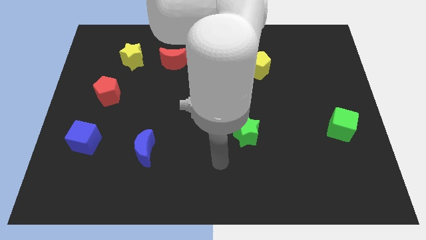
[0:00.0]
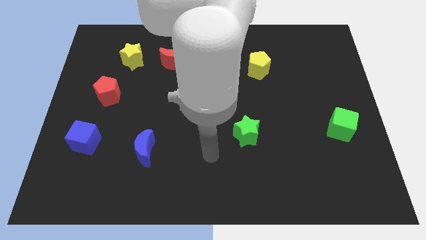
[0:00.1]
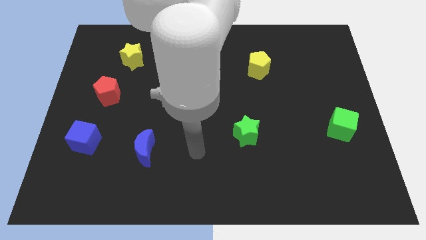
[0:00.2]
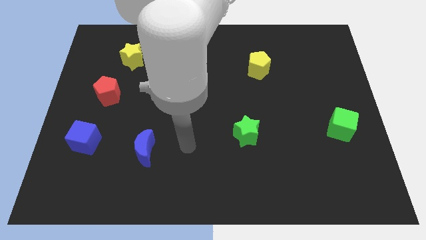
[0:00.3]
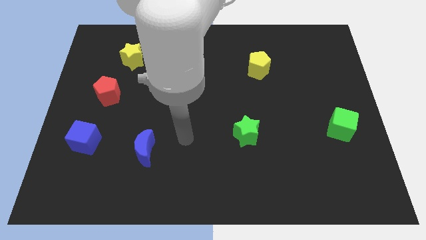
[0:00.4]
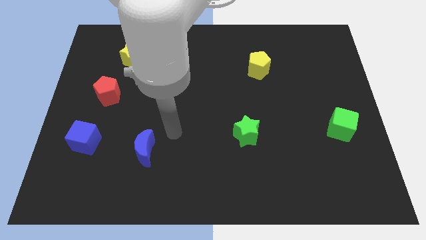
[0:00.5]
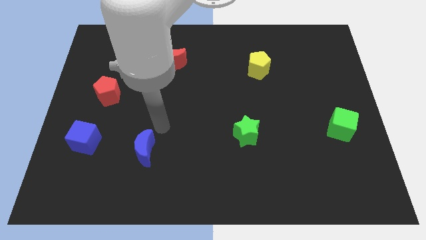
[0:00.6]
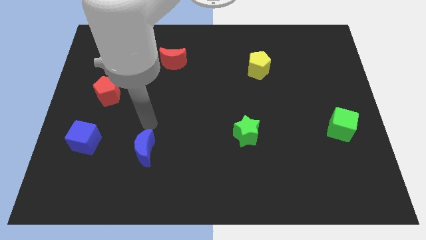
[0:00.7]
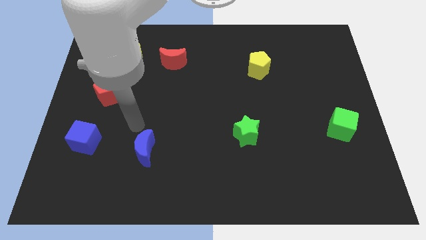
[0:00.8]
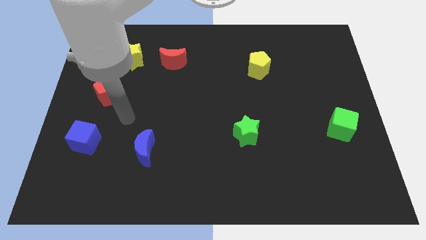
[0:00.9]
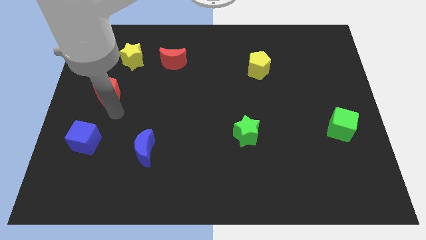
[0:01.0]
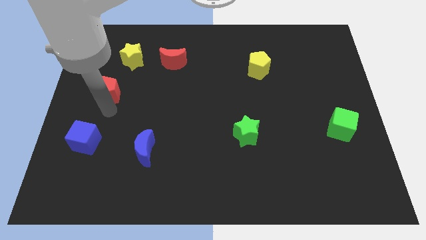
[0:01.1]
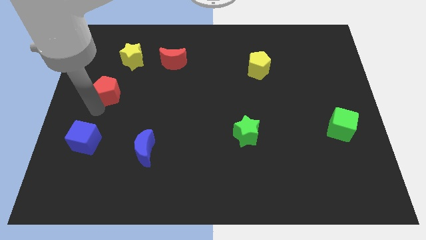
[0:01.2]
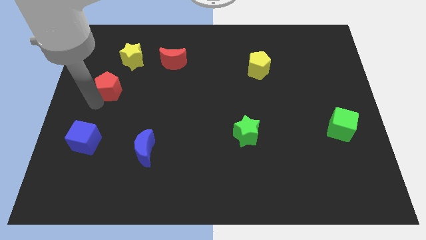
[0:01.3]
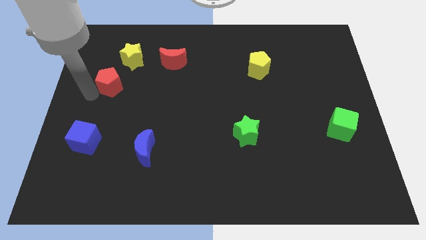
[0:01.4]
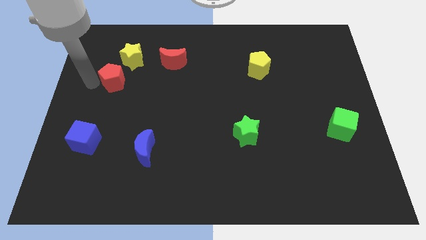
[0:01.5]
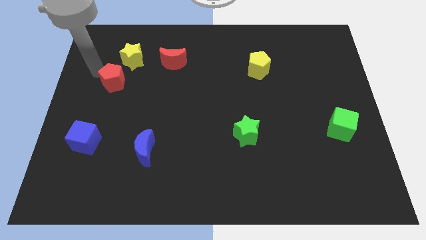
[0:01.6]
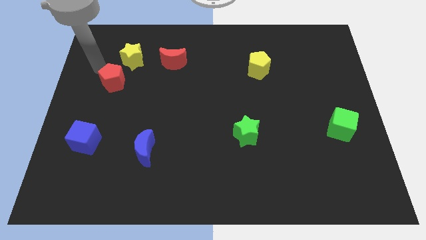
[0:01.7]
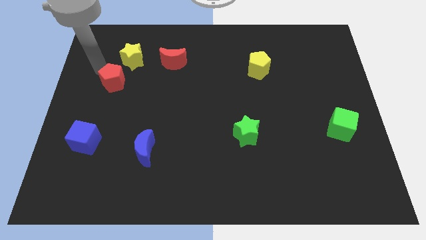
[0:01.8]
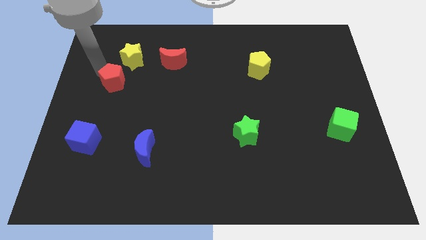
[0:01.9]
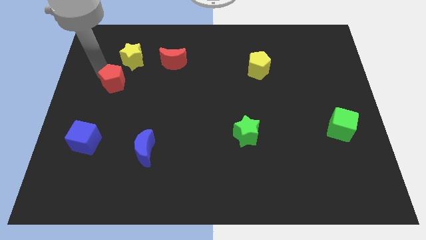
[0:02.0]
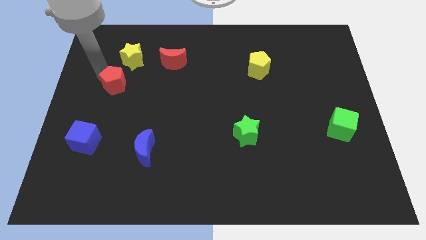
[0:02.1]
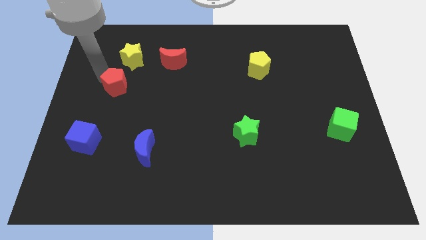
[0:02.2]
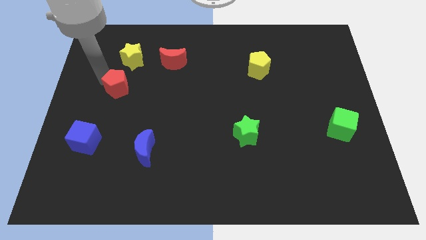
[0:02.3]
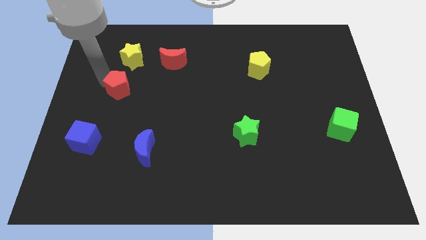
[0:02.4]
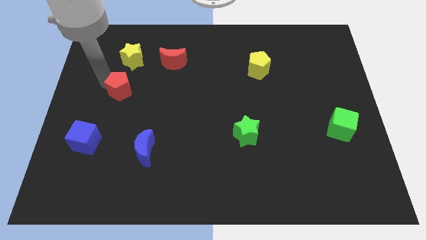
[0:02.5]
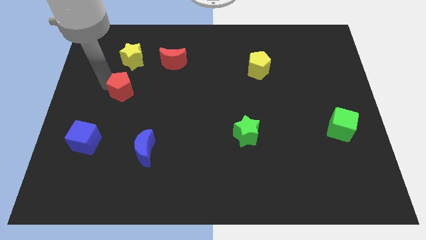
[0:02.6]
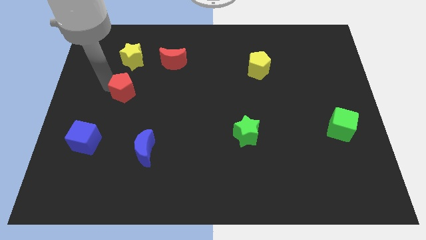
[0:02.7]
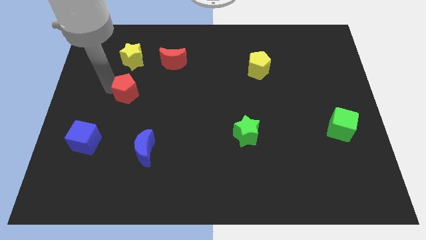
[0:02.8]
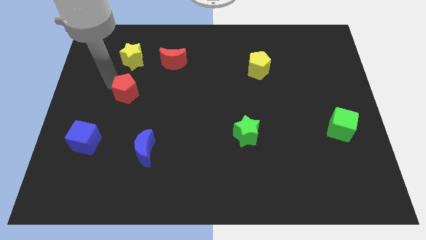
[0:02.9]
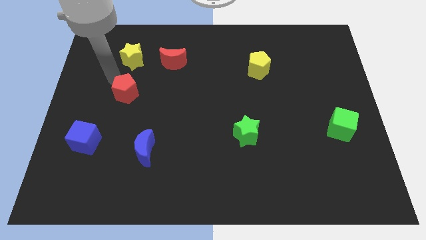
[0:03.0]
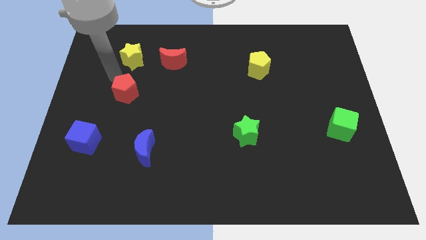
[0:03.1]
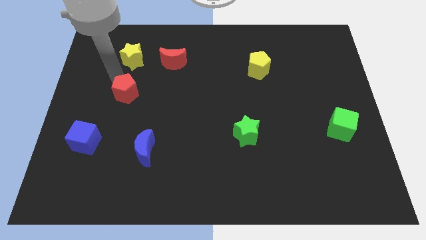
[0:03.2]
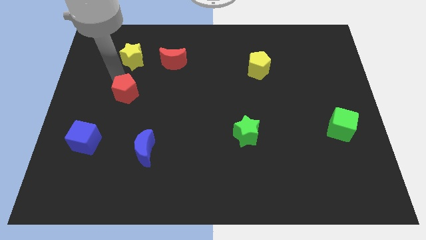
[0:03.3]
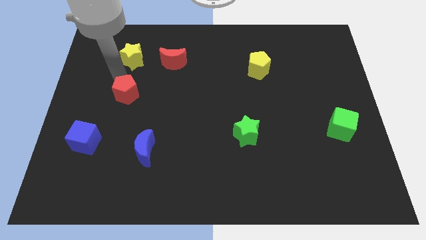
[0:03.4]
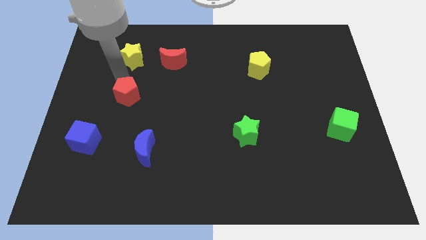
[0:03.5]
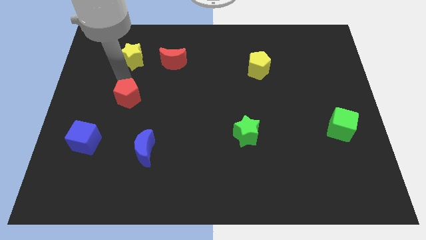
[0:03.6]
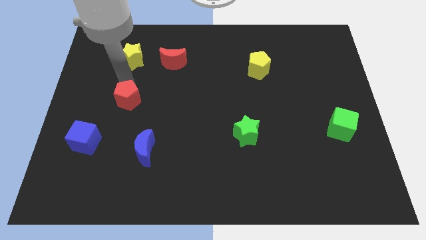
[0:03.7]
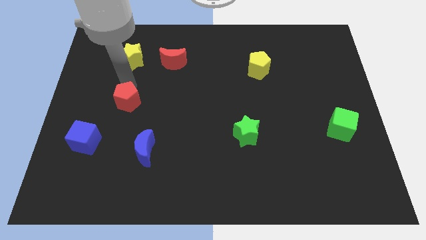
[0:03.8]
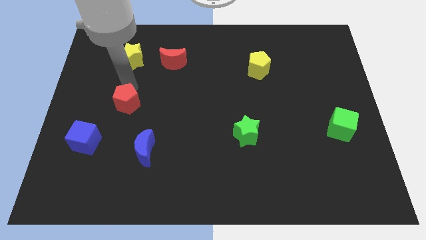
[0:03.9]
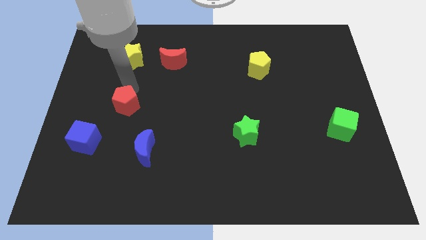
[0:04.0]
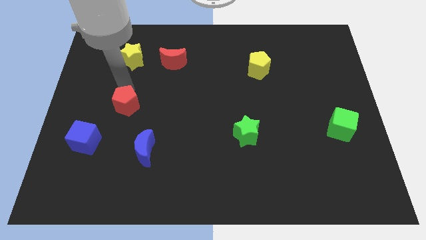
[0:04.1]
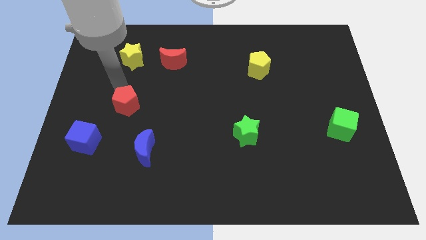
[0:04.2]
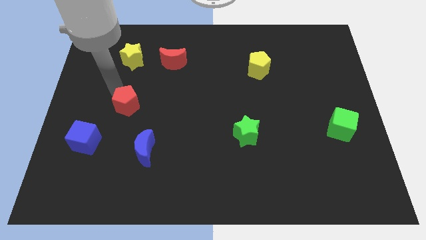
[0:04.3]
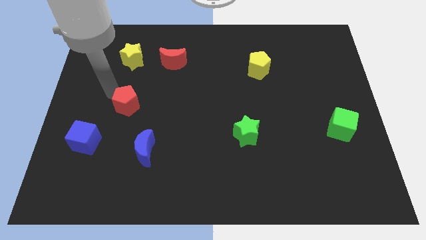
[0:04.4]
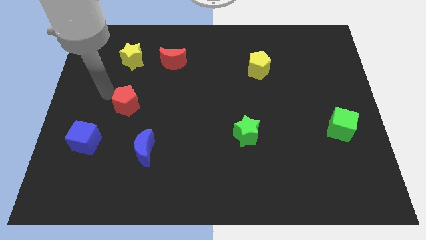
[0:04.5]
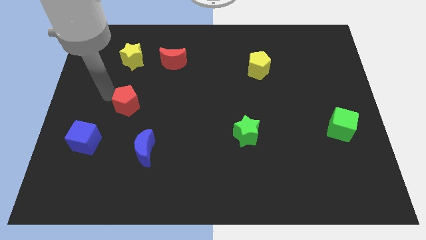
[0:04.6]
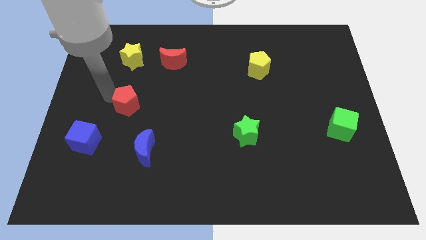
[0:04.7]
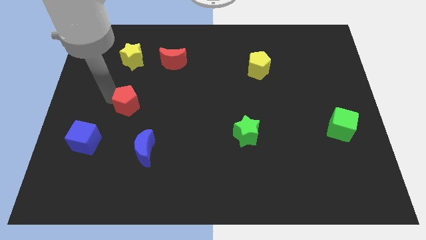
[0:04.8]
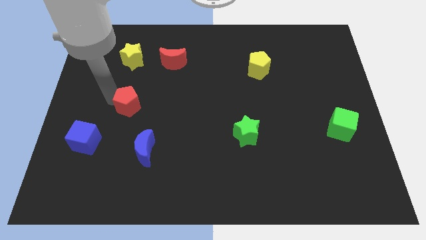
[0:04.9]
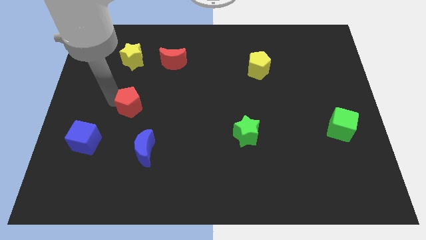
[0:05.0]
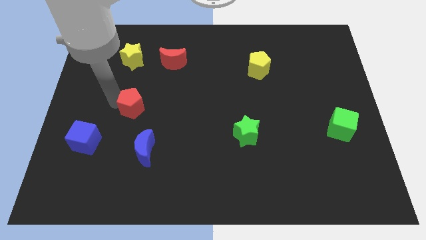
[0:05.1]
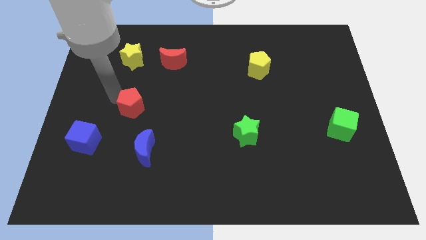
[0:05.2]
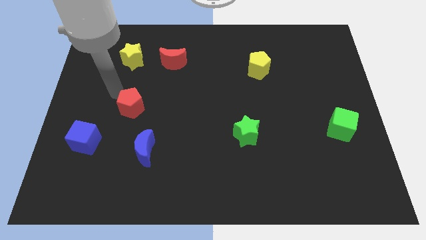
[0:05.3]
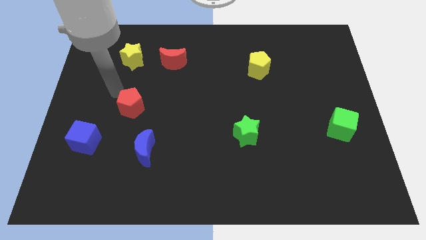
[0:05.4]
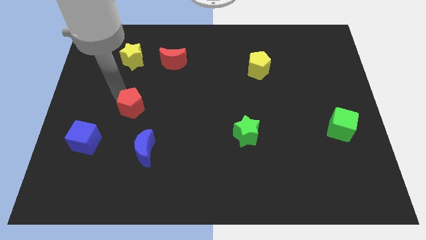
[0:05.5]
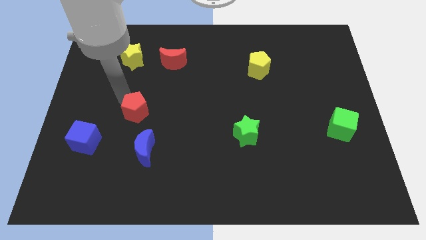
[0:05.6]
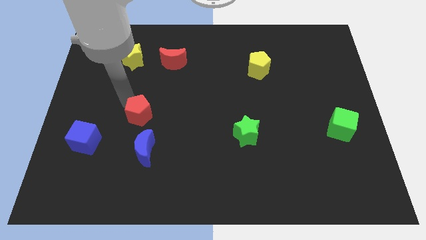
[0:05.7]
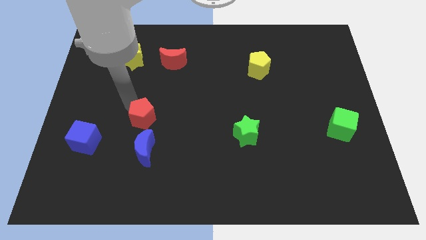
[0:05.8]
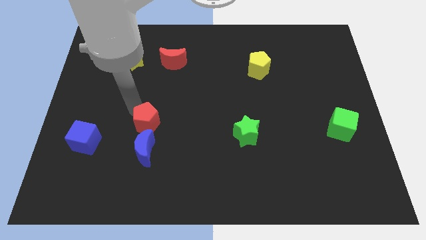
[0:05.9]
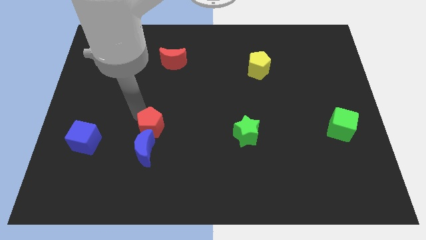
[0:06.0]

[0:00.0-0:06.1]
move the red pentagon diagonally up and to the right of the blue moon

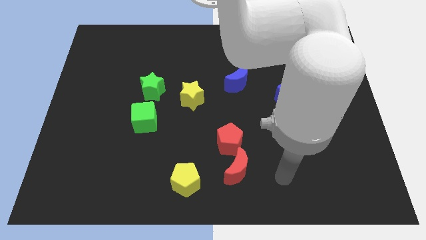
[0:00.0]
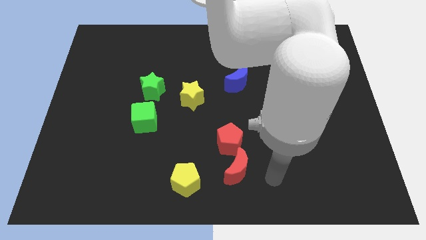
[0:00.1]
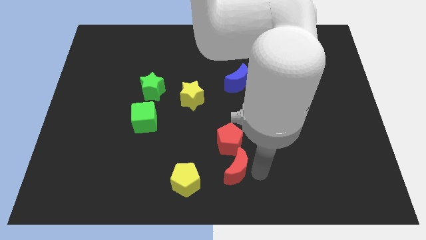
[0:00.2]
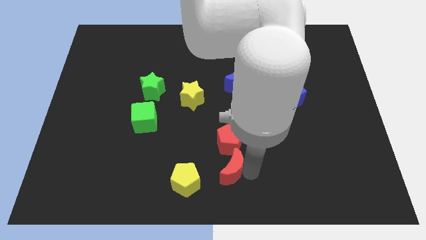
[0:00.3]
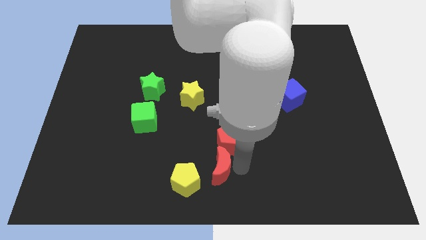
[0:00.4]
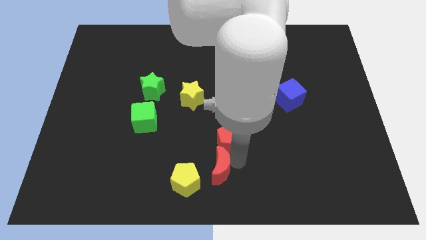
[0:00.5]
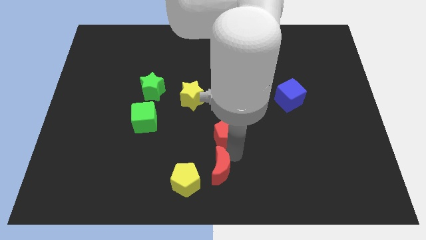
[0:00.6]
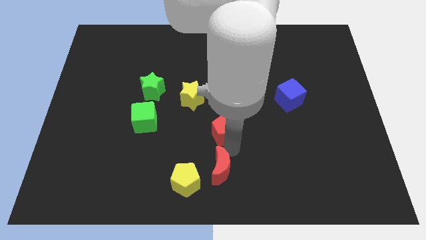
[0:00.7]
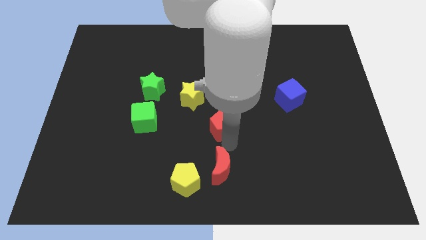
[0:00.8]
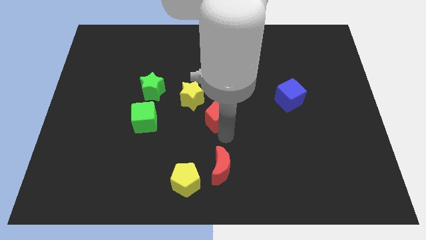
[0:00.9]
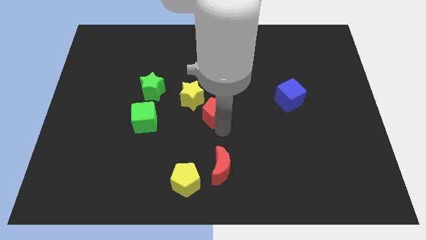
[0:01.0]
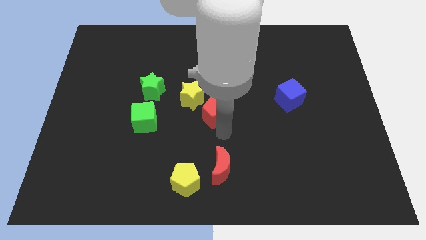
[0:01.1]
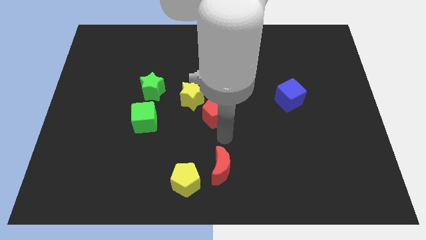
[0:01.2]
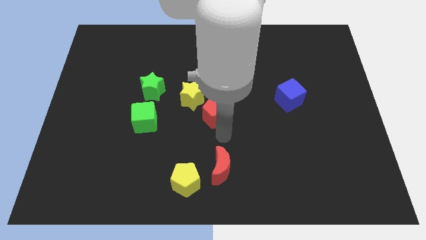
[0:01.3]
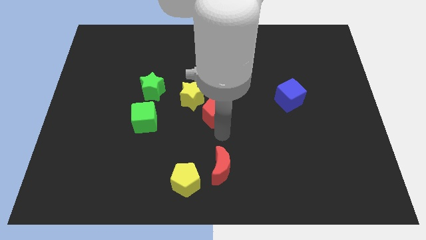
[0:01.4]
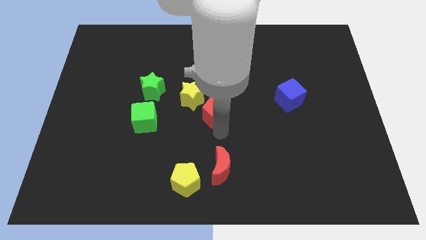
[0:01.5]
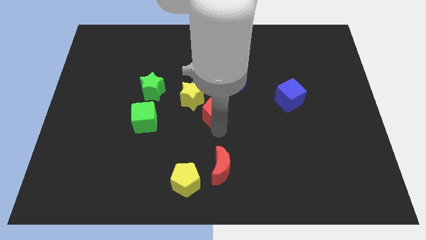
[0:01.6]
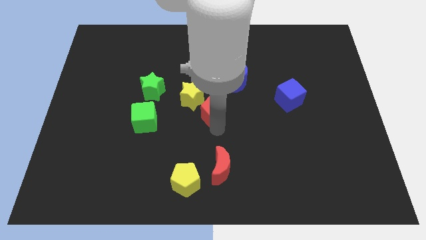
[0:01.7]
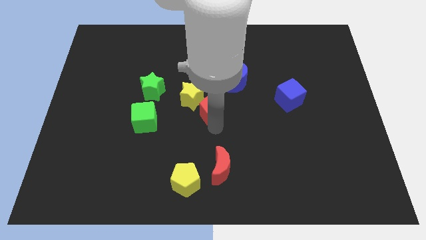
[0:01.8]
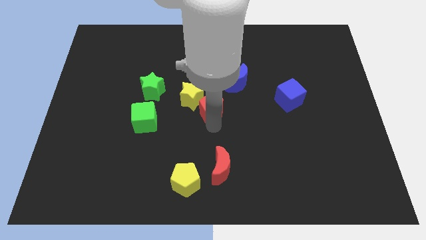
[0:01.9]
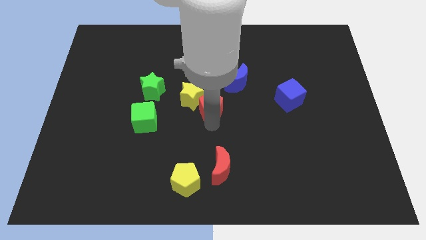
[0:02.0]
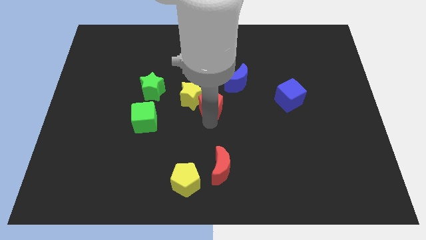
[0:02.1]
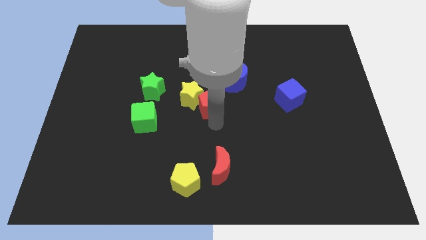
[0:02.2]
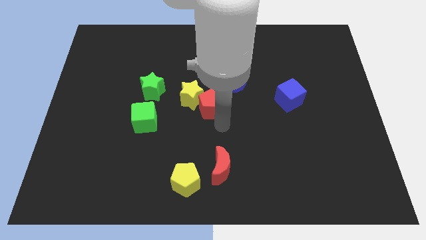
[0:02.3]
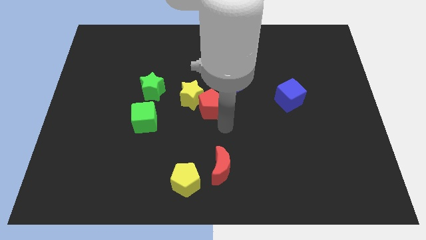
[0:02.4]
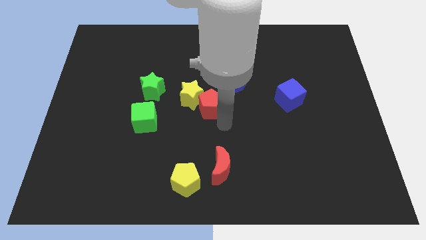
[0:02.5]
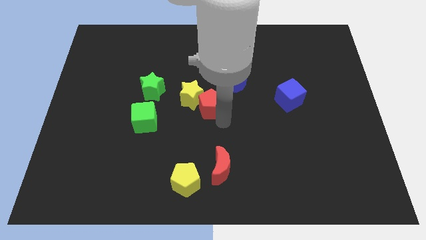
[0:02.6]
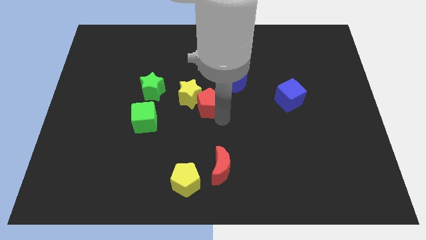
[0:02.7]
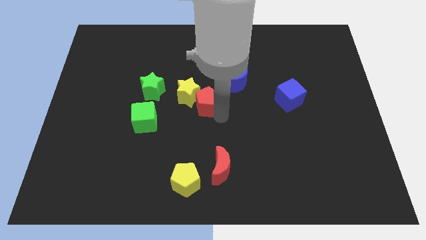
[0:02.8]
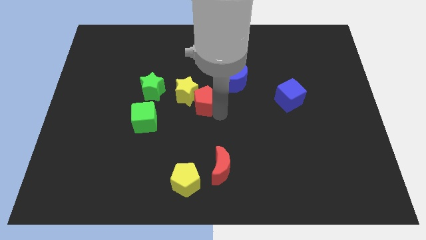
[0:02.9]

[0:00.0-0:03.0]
put the red pentagon to the right of the green star
